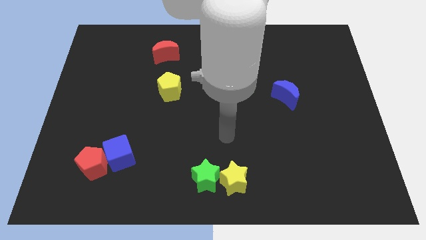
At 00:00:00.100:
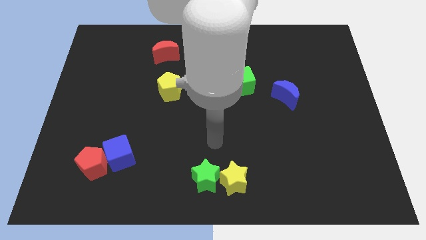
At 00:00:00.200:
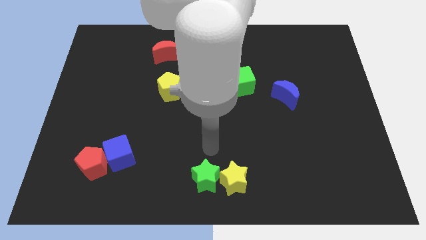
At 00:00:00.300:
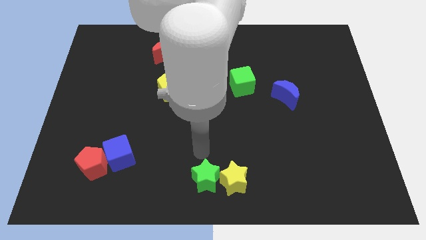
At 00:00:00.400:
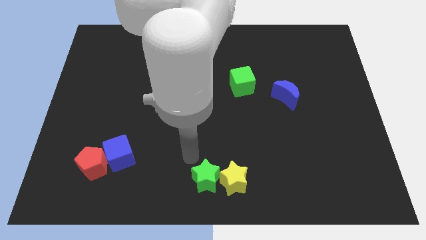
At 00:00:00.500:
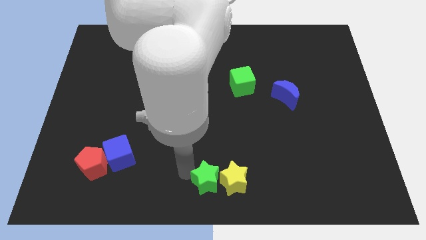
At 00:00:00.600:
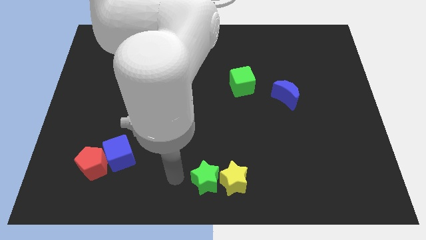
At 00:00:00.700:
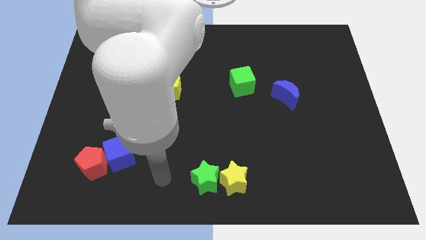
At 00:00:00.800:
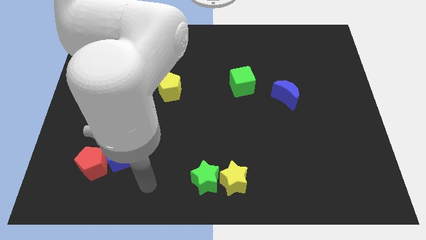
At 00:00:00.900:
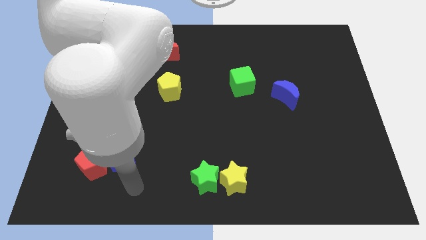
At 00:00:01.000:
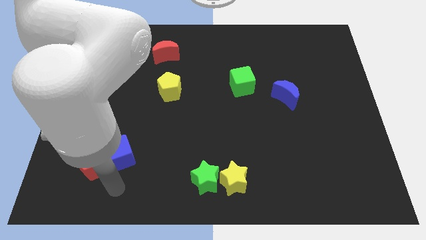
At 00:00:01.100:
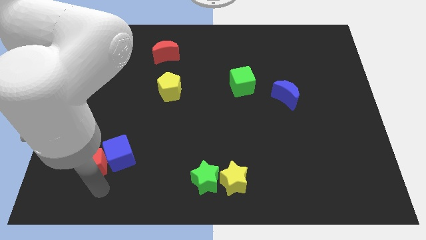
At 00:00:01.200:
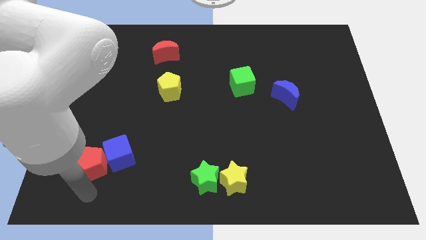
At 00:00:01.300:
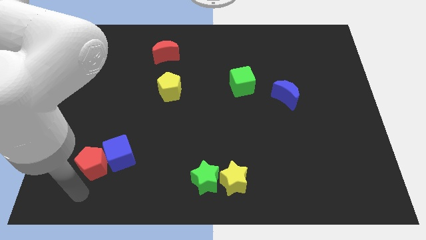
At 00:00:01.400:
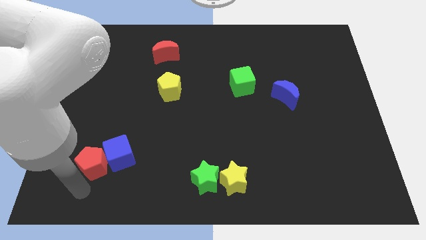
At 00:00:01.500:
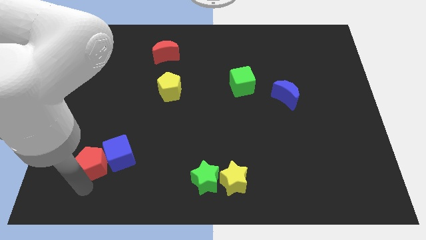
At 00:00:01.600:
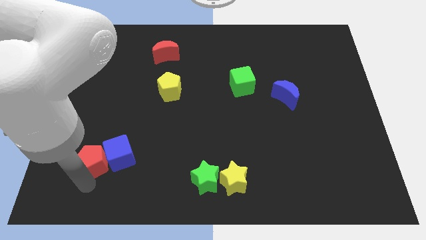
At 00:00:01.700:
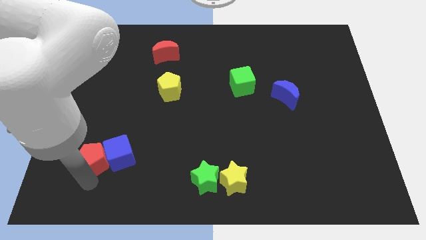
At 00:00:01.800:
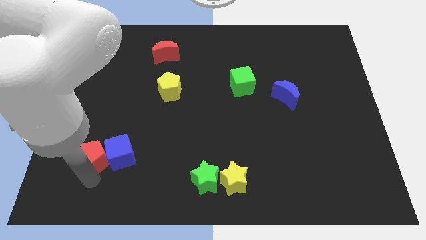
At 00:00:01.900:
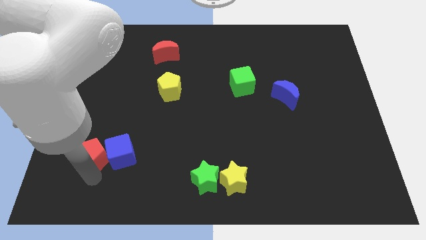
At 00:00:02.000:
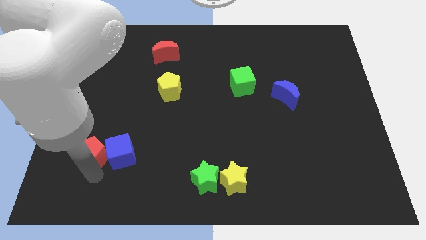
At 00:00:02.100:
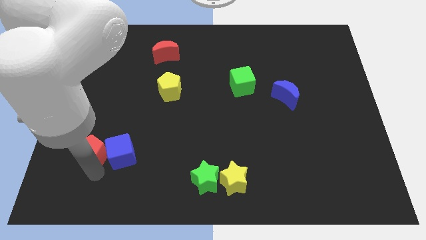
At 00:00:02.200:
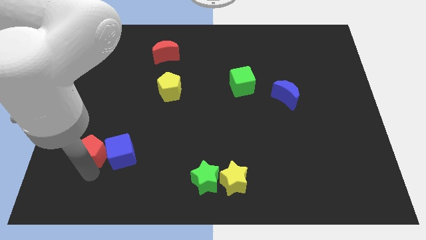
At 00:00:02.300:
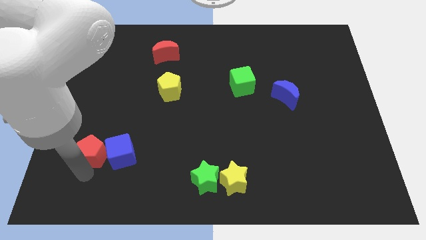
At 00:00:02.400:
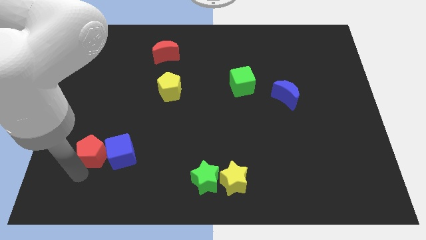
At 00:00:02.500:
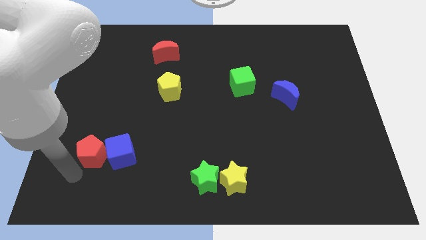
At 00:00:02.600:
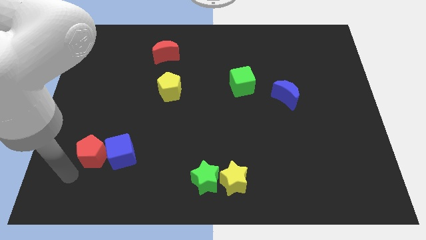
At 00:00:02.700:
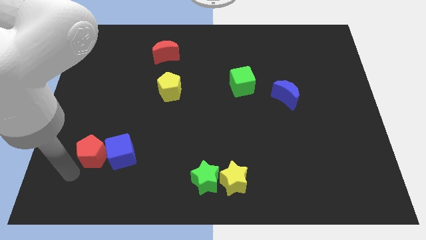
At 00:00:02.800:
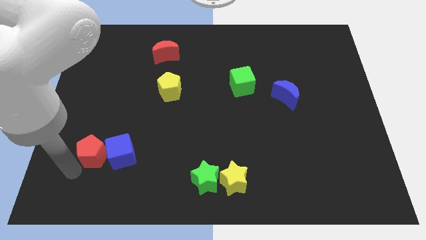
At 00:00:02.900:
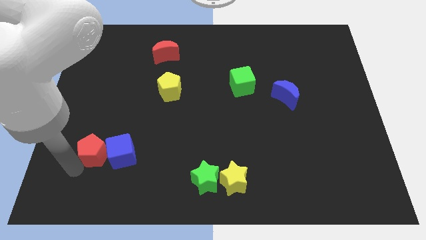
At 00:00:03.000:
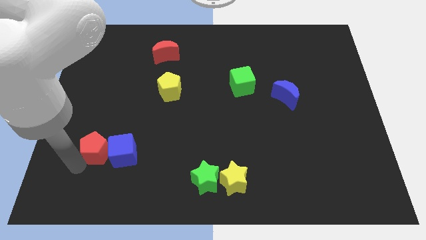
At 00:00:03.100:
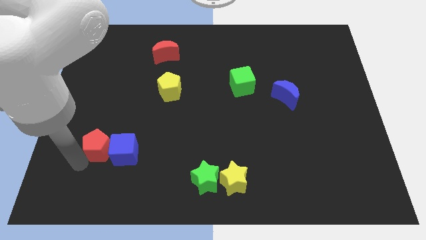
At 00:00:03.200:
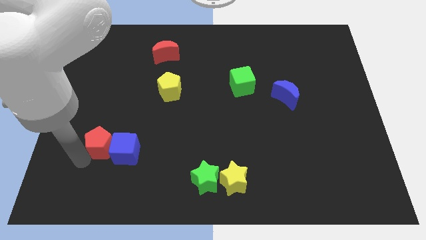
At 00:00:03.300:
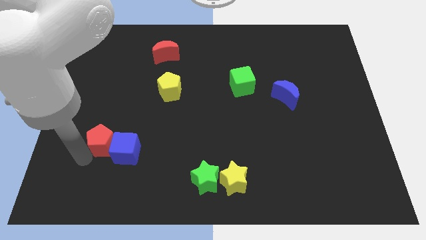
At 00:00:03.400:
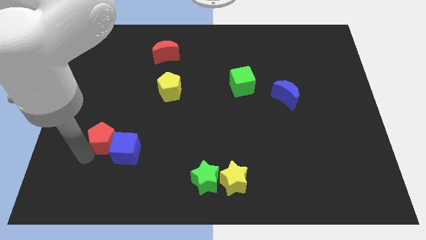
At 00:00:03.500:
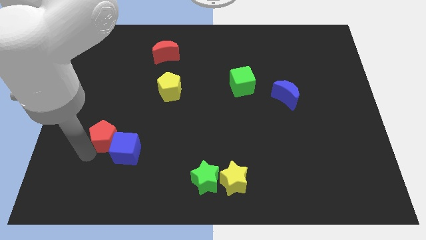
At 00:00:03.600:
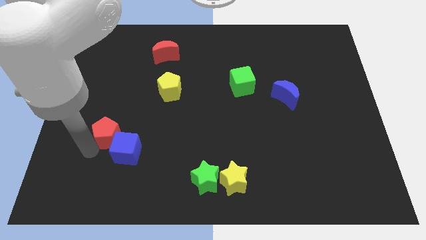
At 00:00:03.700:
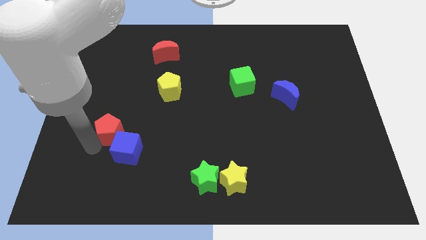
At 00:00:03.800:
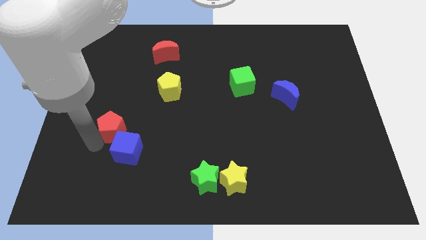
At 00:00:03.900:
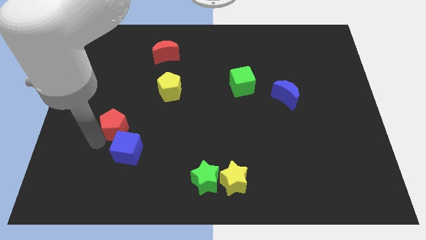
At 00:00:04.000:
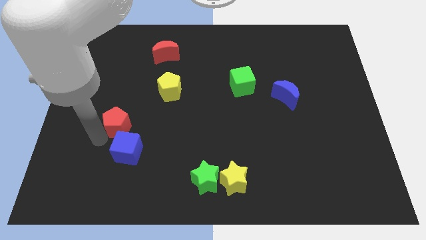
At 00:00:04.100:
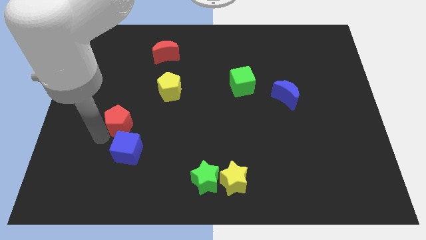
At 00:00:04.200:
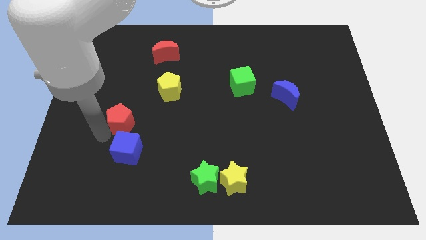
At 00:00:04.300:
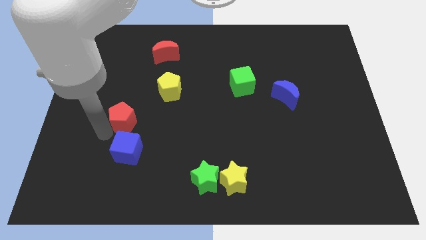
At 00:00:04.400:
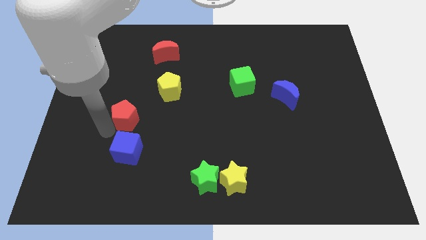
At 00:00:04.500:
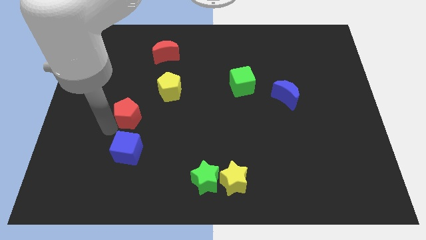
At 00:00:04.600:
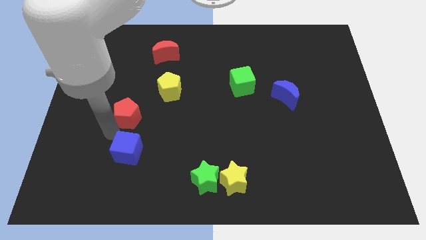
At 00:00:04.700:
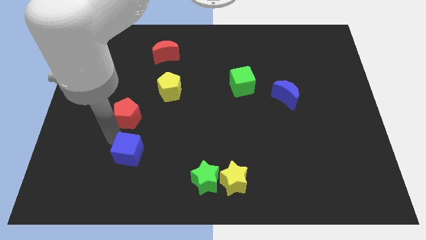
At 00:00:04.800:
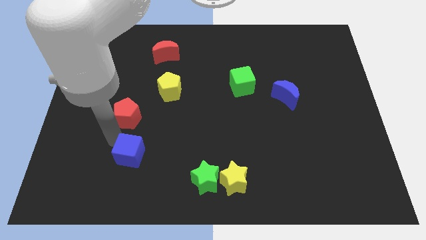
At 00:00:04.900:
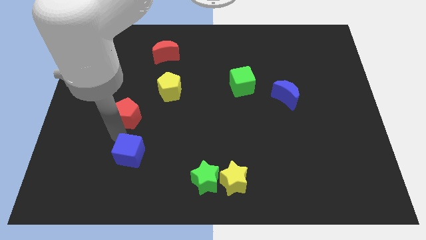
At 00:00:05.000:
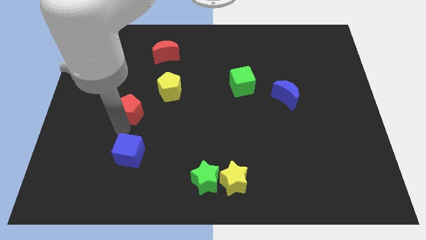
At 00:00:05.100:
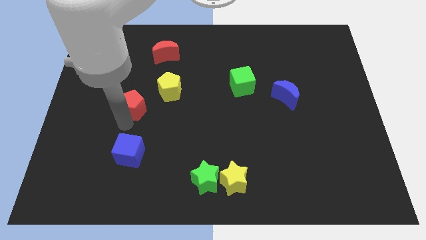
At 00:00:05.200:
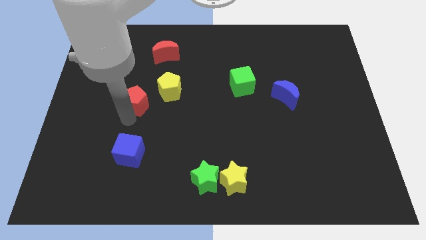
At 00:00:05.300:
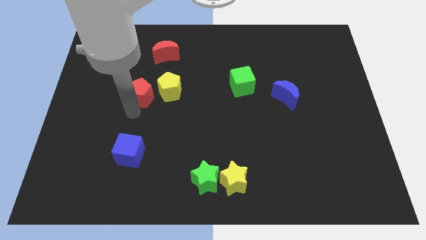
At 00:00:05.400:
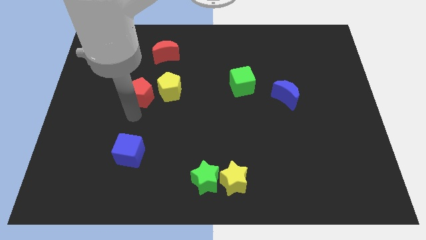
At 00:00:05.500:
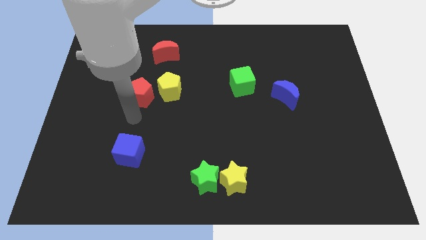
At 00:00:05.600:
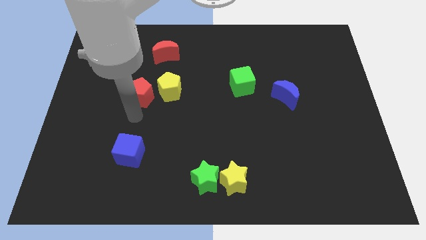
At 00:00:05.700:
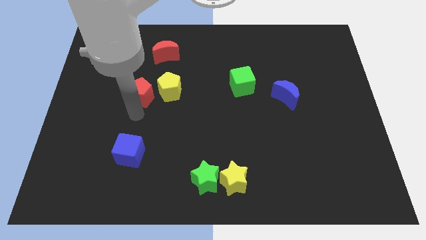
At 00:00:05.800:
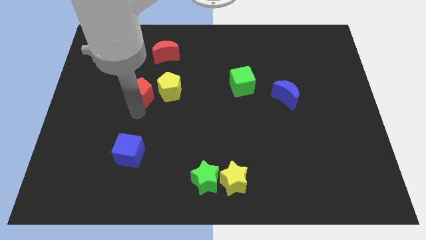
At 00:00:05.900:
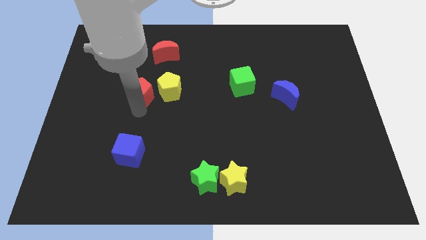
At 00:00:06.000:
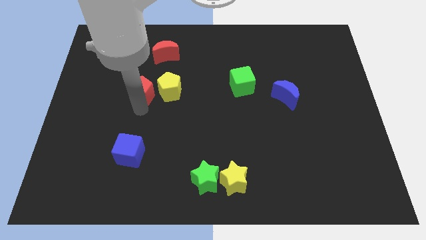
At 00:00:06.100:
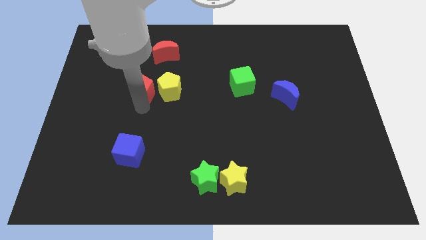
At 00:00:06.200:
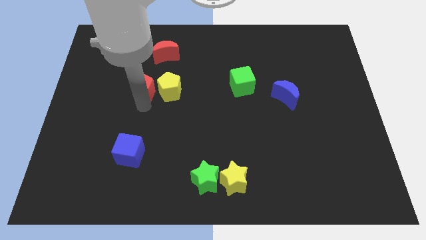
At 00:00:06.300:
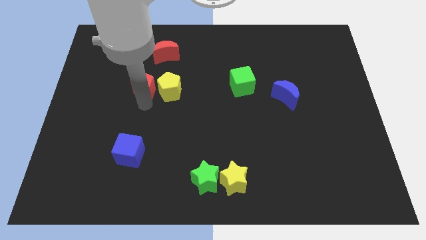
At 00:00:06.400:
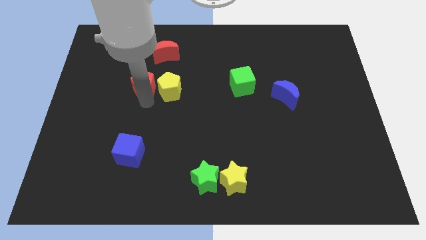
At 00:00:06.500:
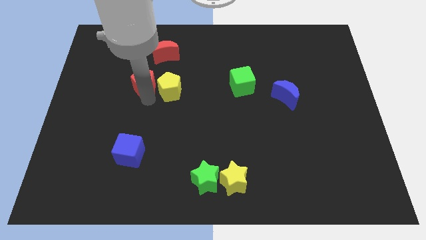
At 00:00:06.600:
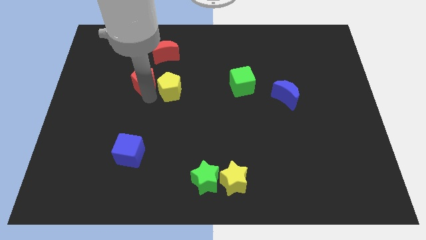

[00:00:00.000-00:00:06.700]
put the red pentagon diagonally down and to the left of the red moon
